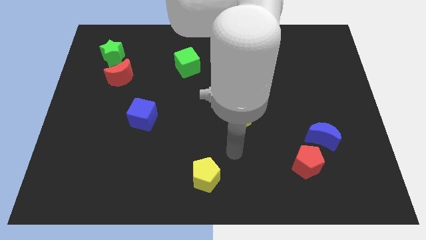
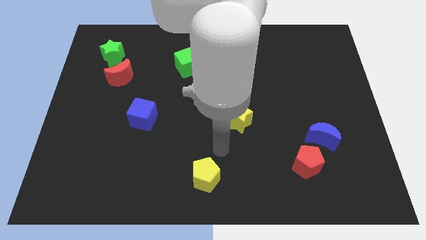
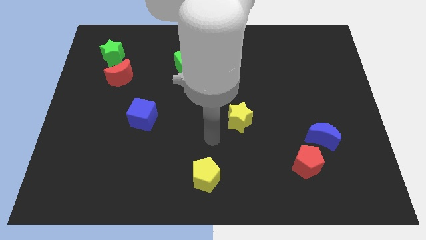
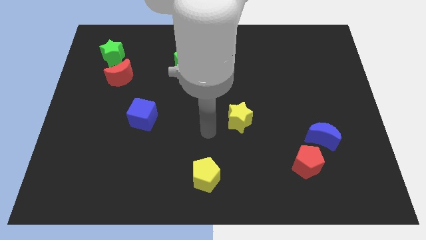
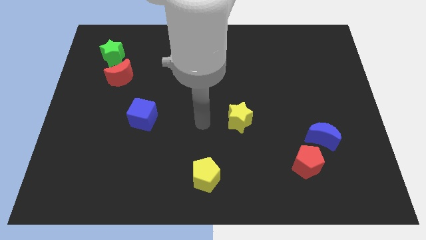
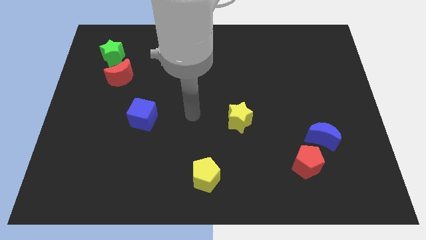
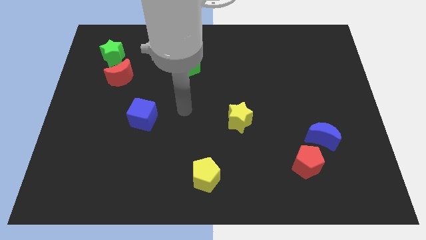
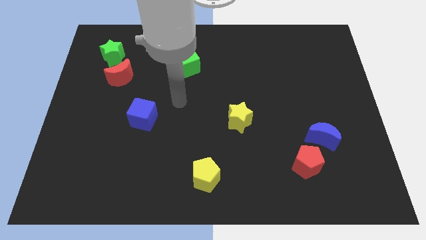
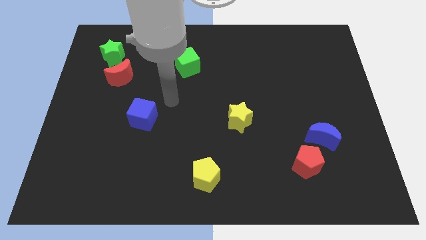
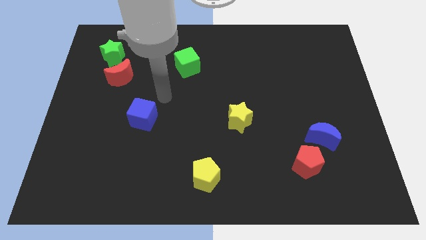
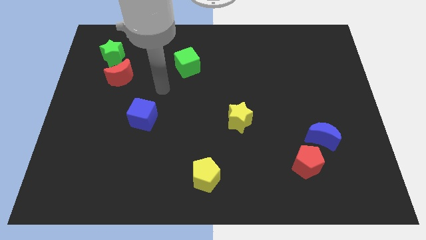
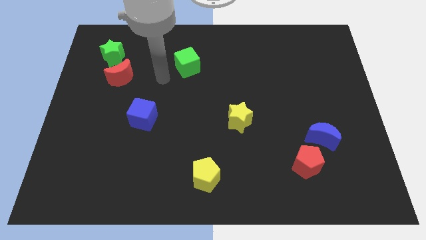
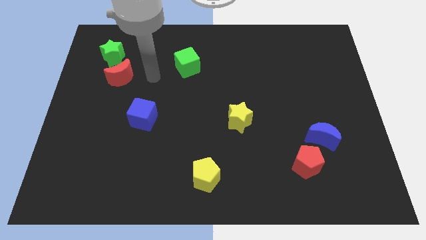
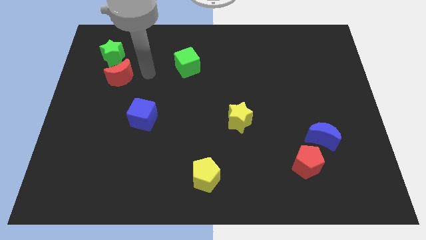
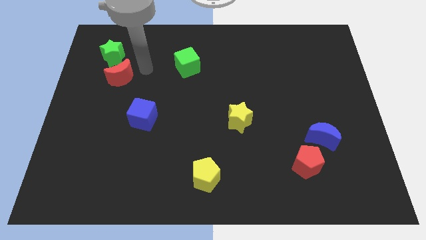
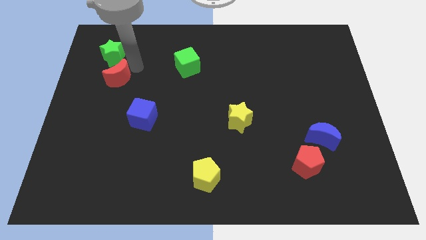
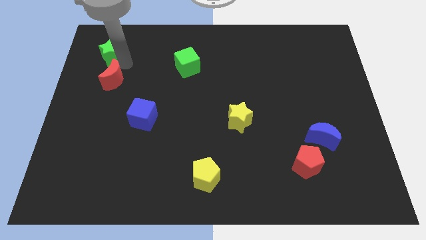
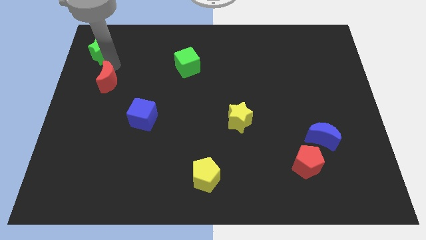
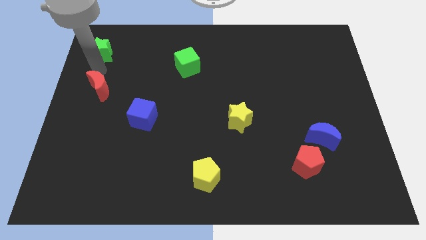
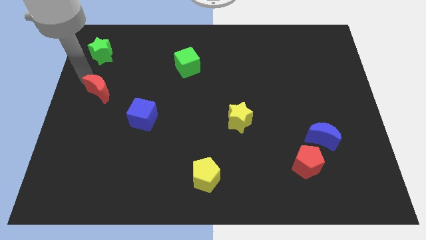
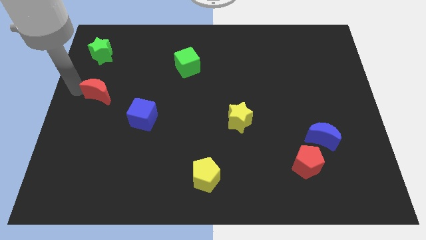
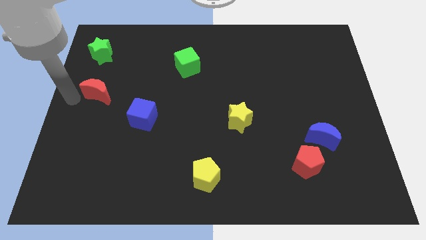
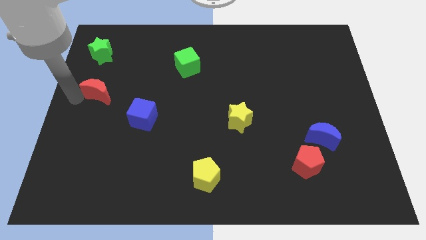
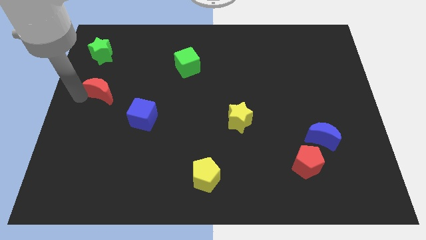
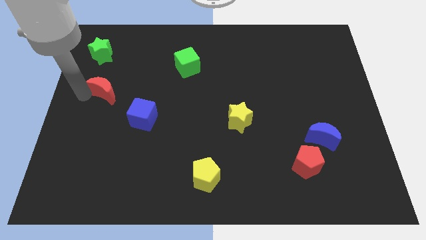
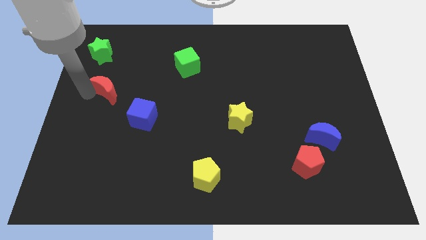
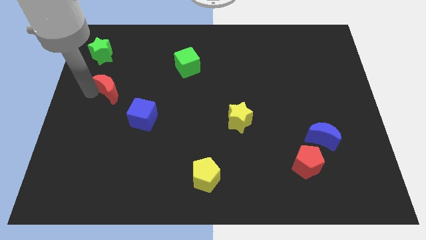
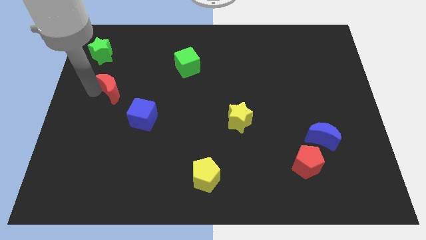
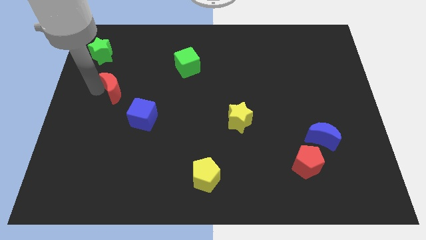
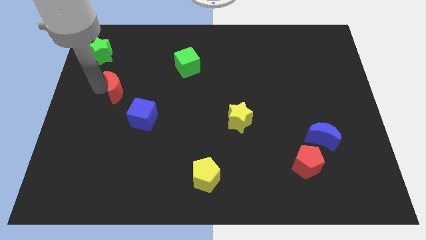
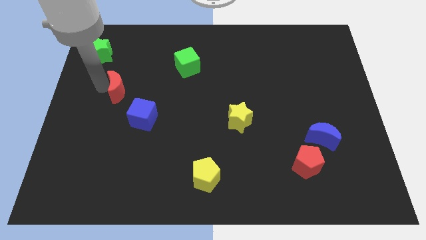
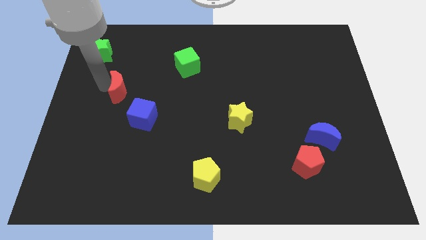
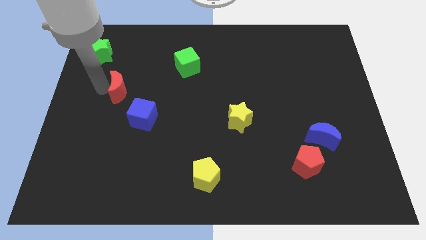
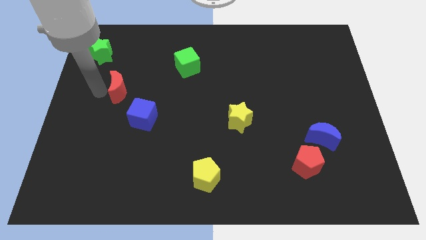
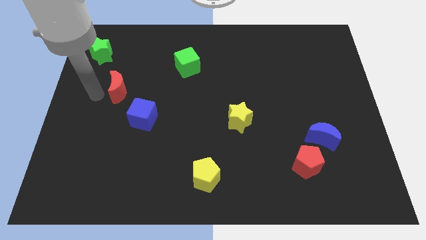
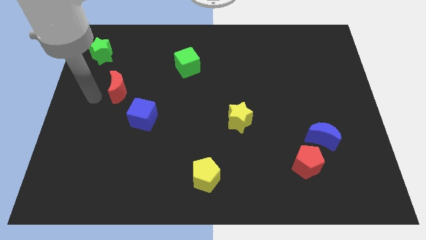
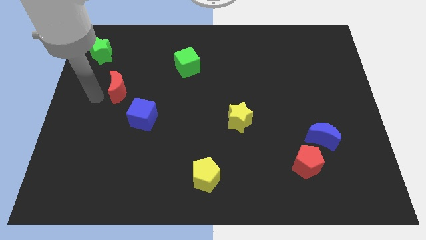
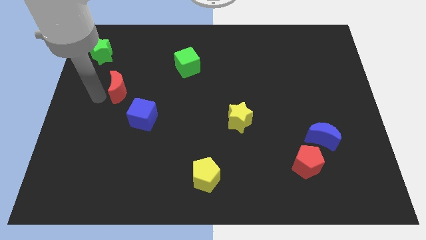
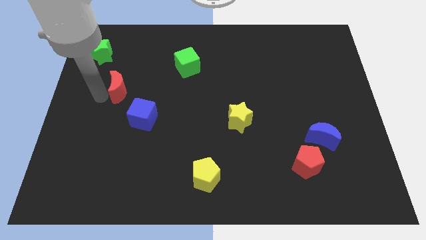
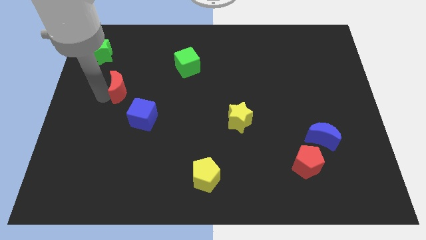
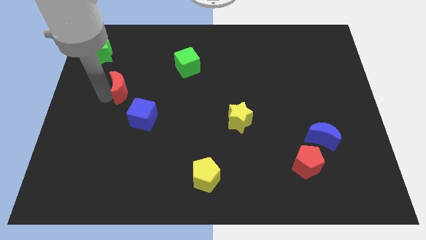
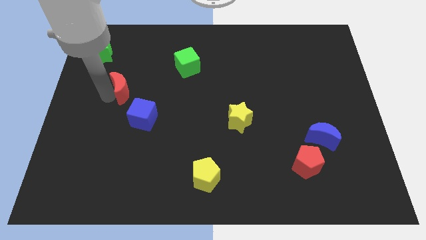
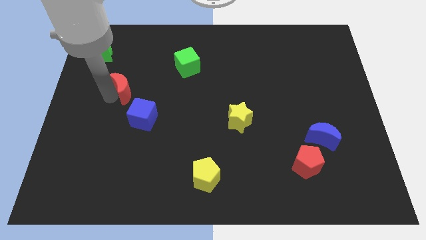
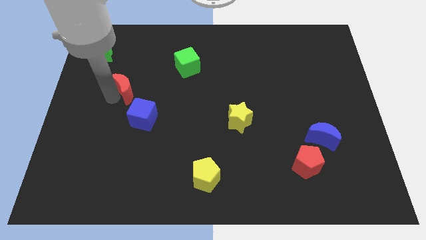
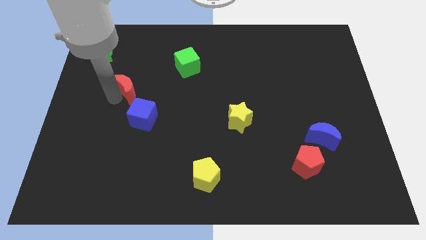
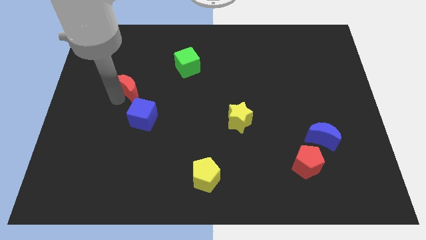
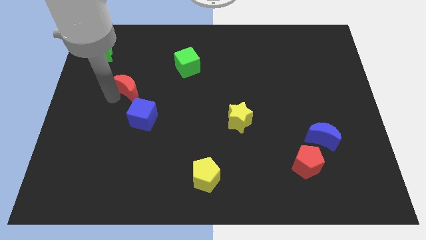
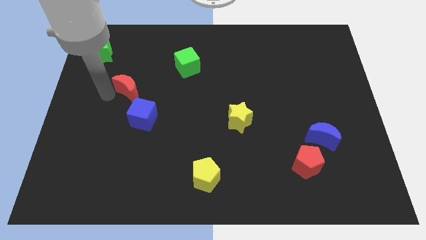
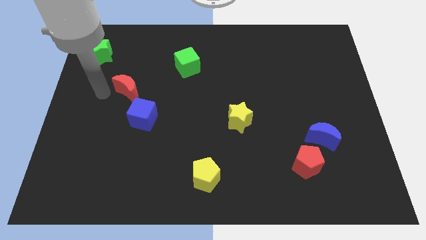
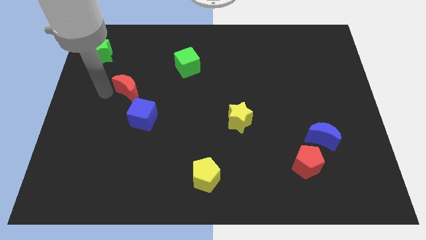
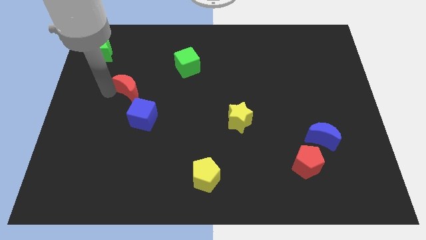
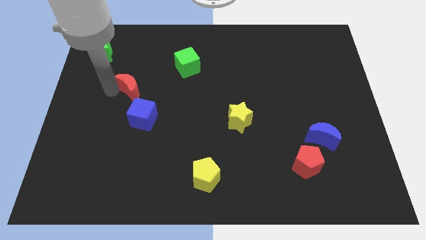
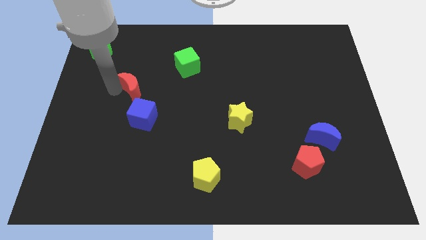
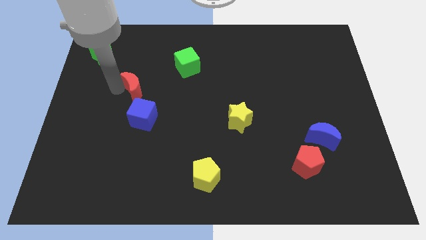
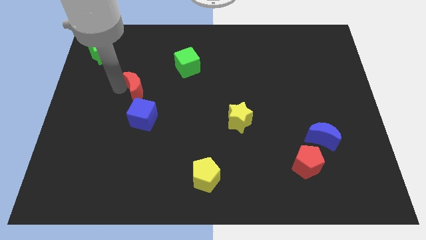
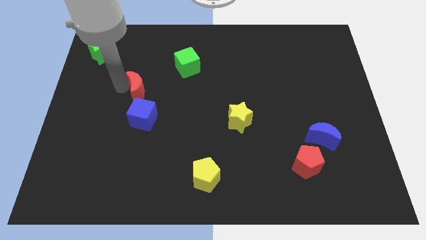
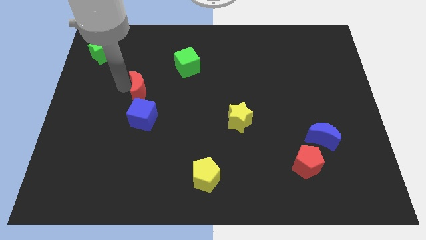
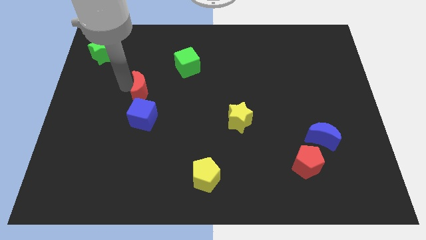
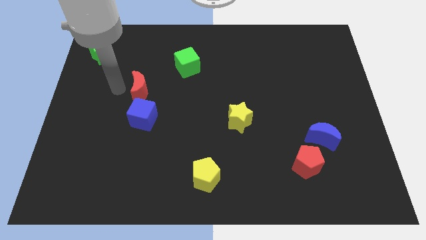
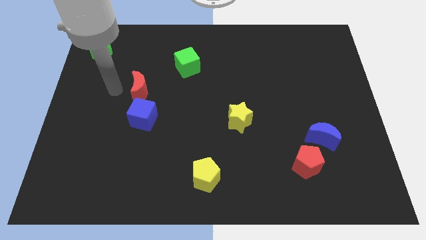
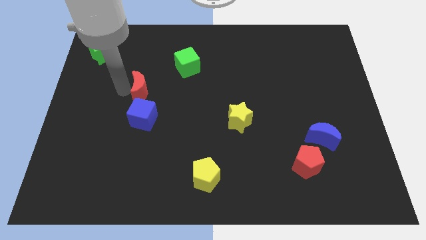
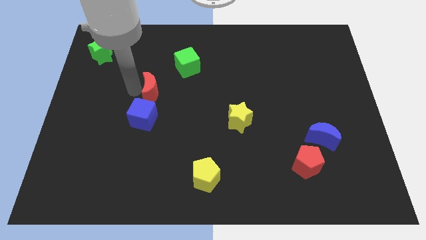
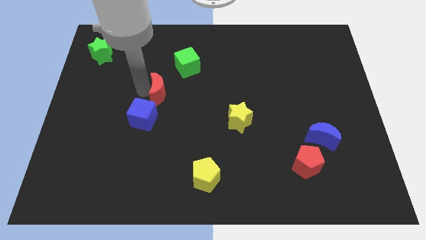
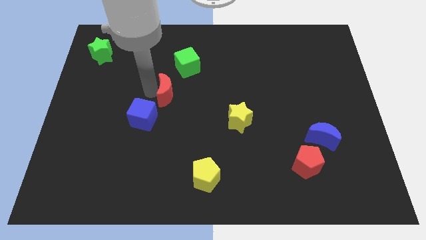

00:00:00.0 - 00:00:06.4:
slide the red moon to the center

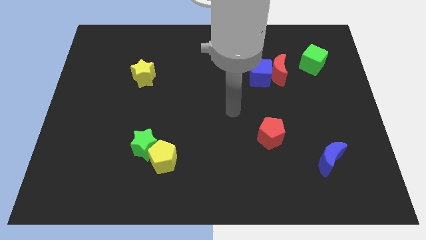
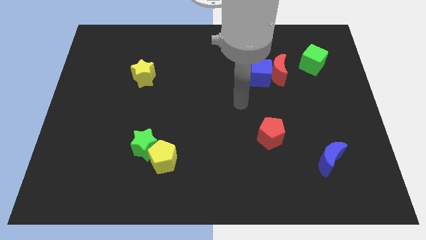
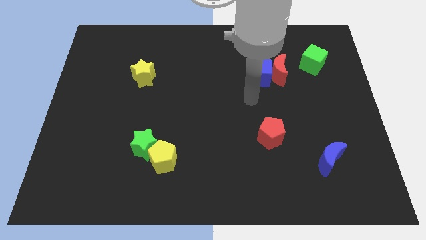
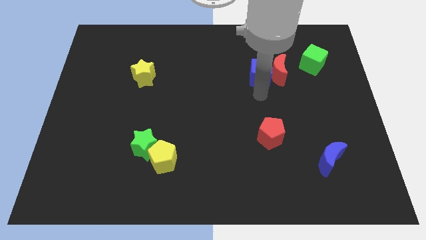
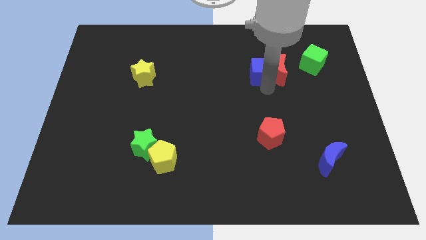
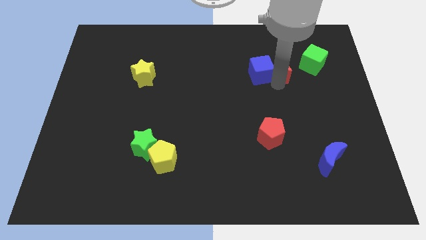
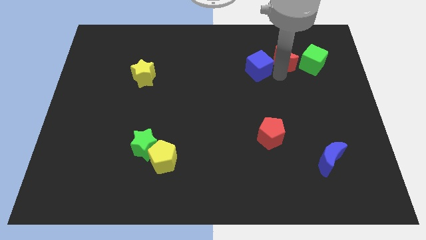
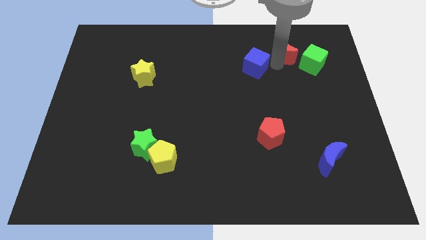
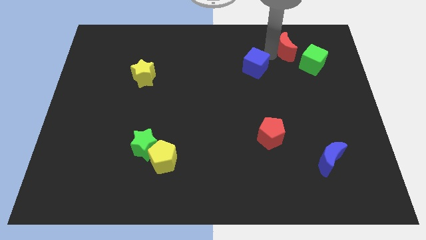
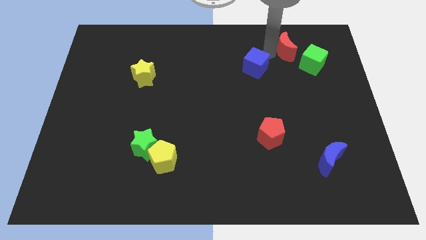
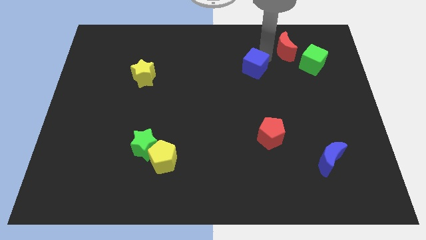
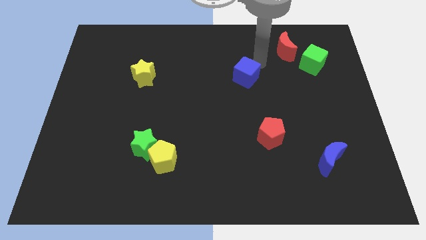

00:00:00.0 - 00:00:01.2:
put the blue cube to the middle of the board
